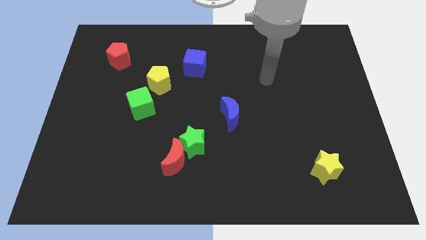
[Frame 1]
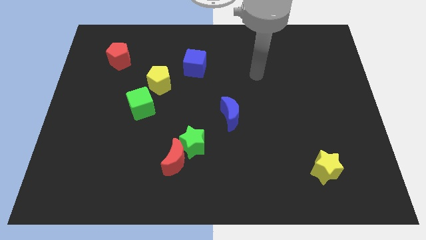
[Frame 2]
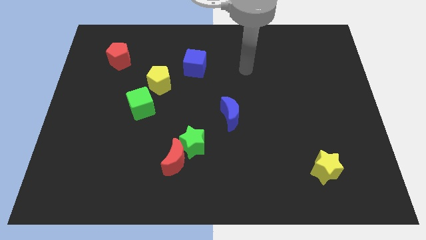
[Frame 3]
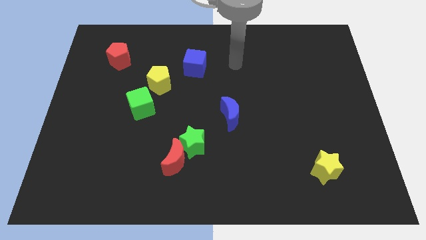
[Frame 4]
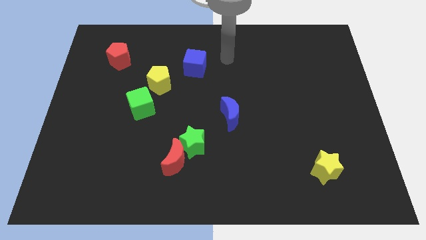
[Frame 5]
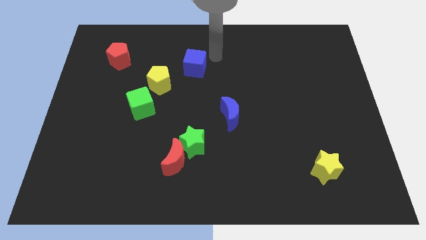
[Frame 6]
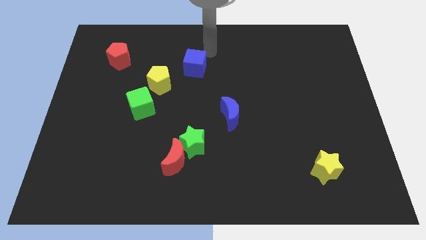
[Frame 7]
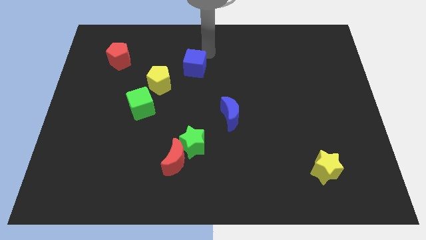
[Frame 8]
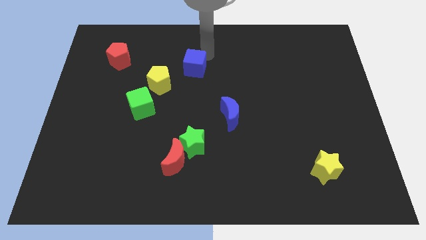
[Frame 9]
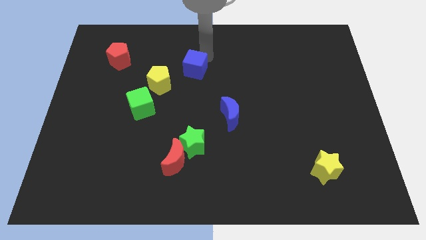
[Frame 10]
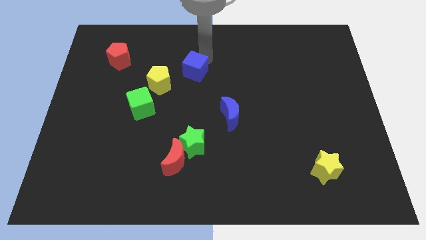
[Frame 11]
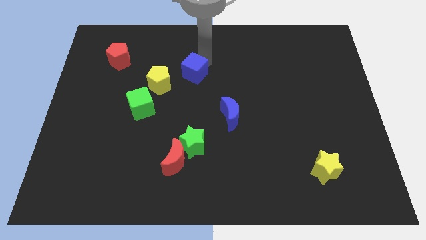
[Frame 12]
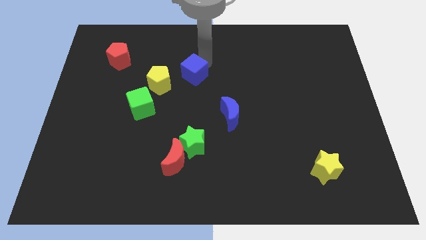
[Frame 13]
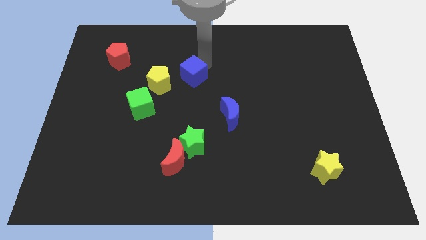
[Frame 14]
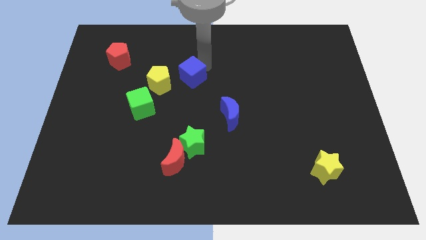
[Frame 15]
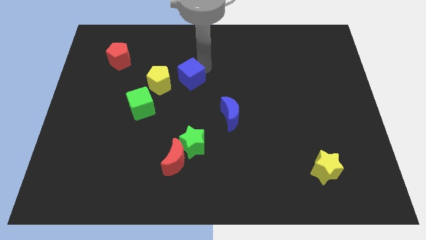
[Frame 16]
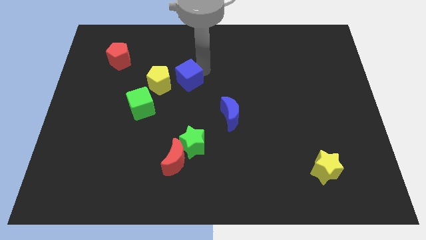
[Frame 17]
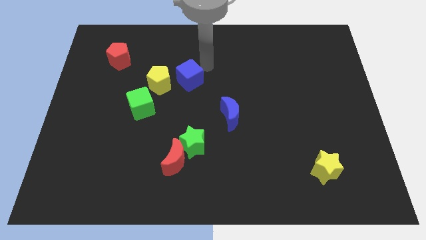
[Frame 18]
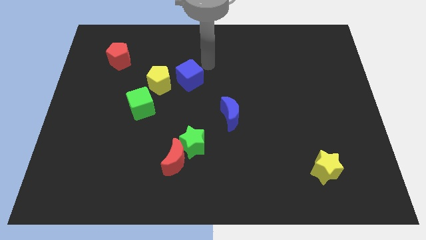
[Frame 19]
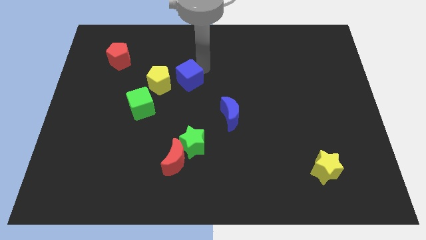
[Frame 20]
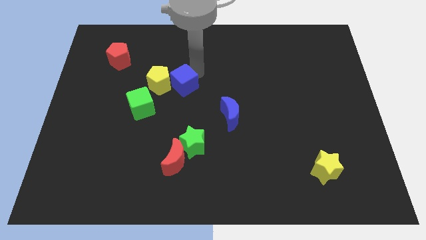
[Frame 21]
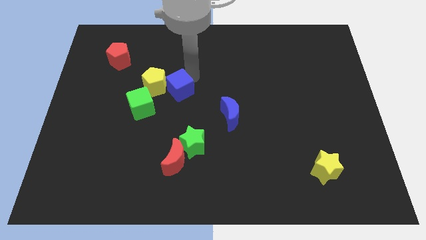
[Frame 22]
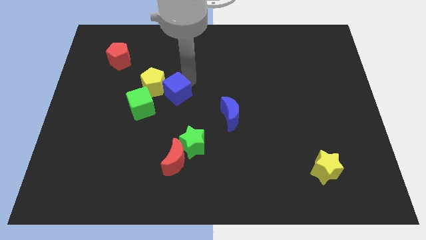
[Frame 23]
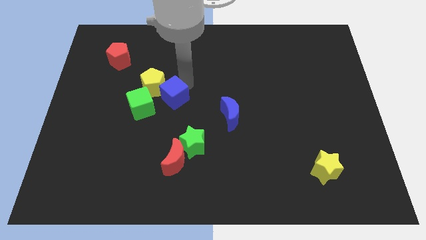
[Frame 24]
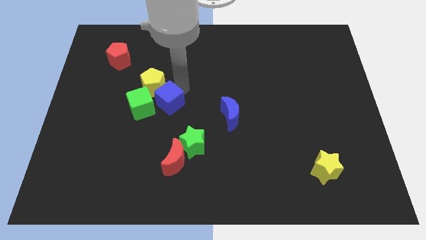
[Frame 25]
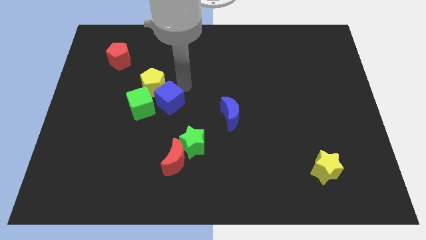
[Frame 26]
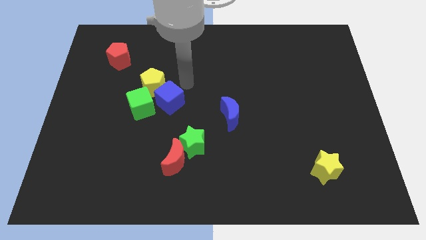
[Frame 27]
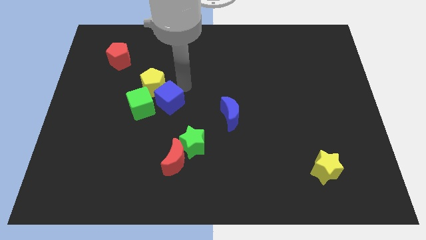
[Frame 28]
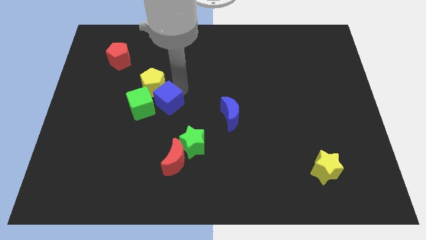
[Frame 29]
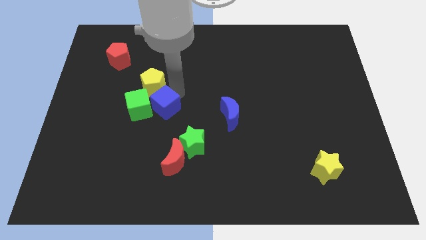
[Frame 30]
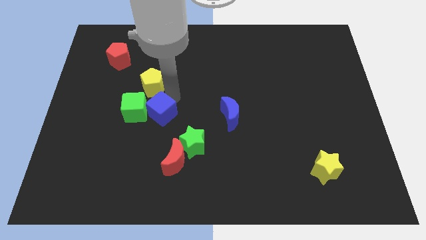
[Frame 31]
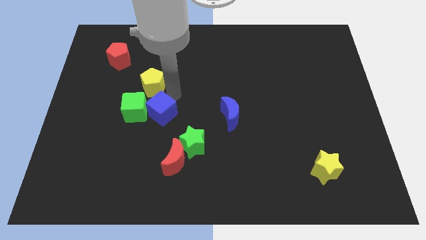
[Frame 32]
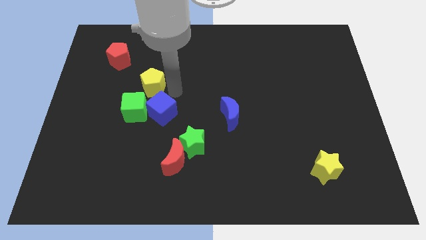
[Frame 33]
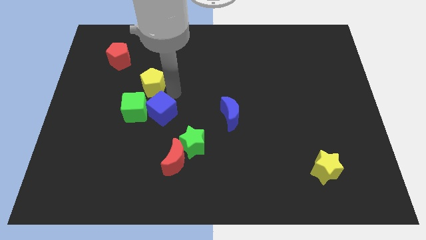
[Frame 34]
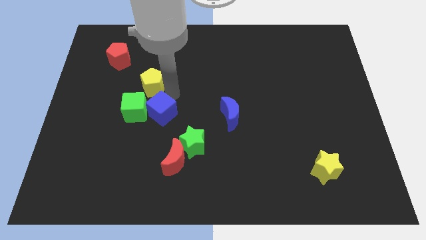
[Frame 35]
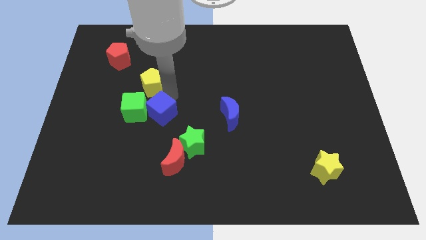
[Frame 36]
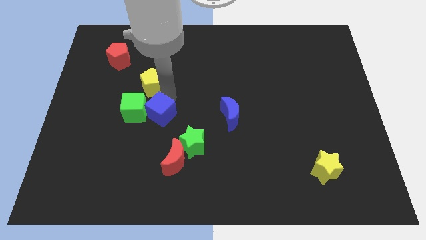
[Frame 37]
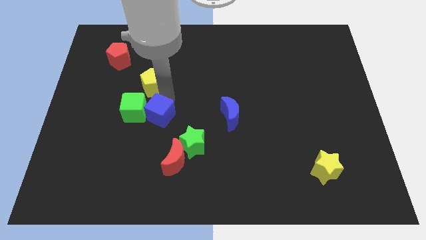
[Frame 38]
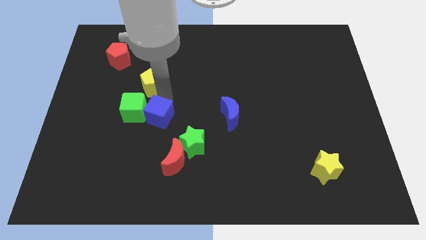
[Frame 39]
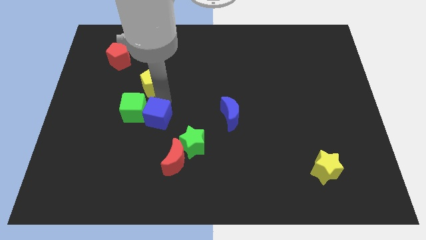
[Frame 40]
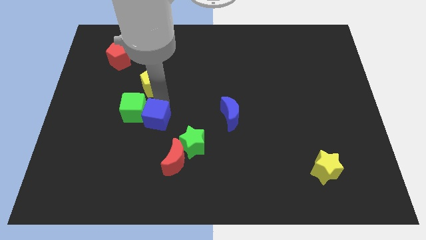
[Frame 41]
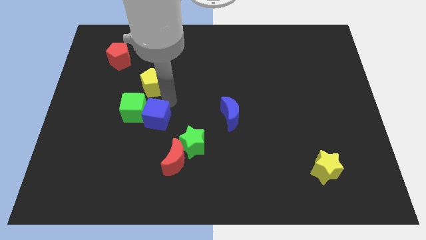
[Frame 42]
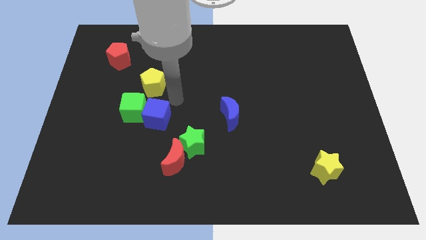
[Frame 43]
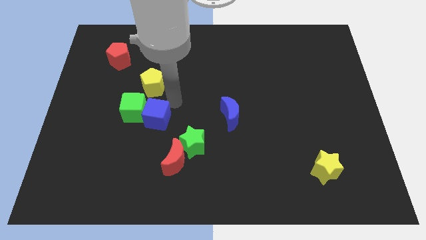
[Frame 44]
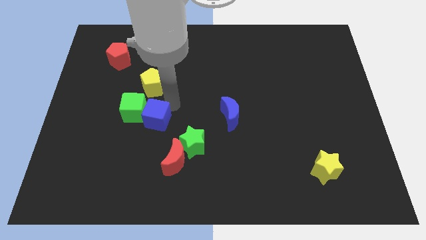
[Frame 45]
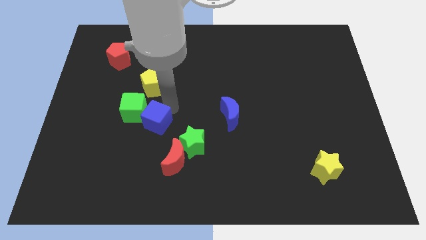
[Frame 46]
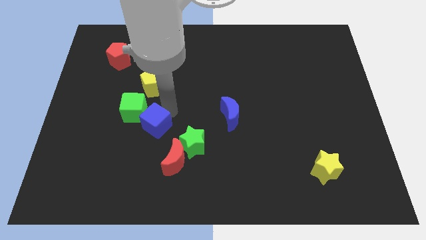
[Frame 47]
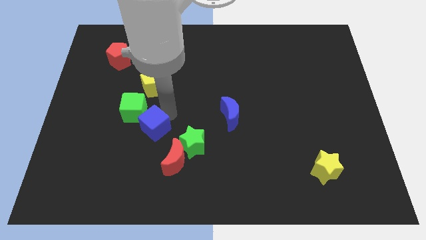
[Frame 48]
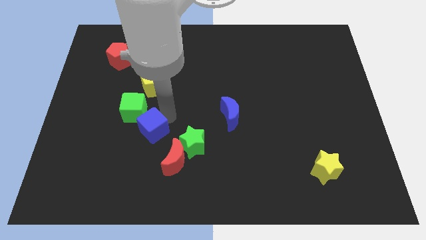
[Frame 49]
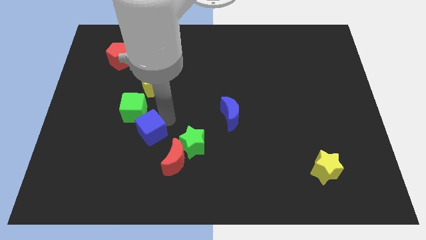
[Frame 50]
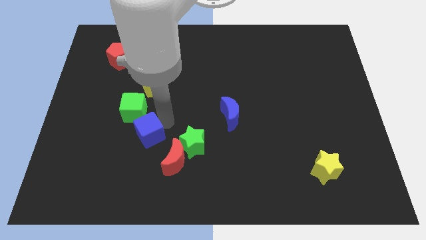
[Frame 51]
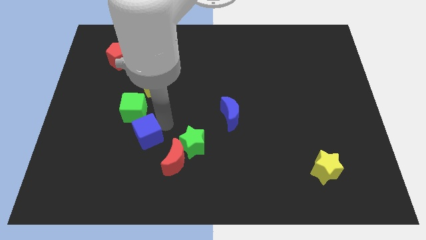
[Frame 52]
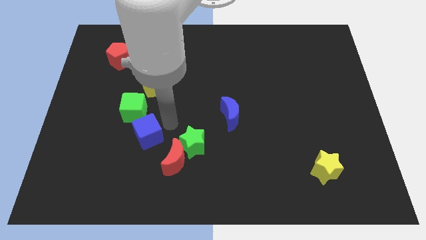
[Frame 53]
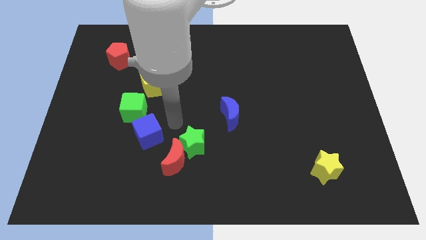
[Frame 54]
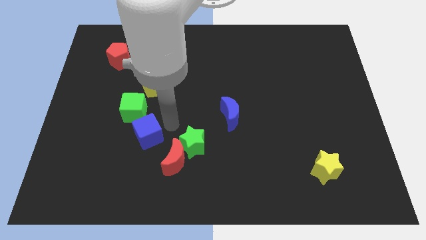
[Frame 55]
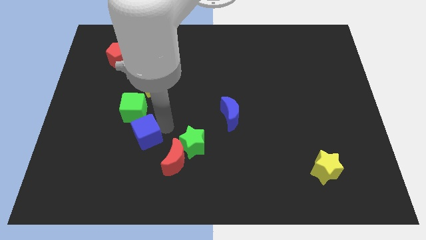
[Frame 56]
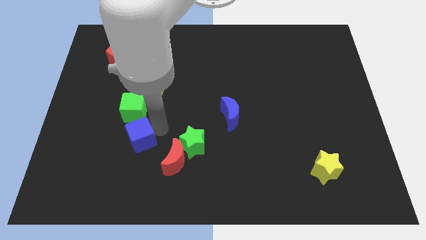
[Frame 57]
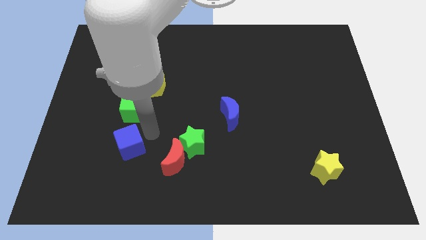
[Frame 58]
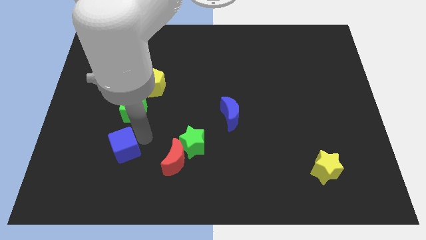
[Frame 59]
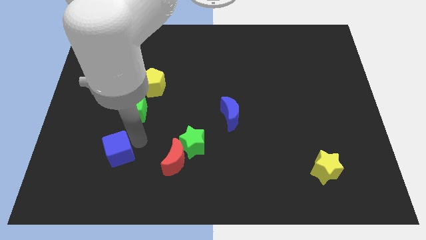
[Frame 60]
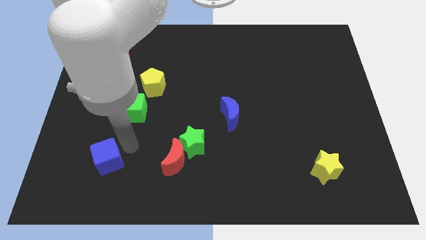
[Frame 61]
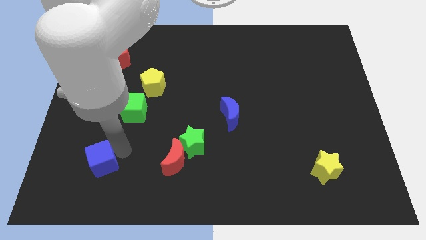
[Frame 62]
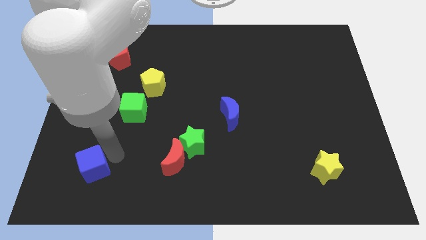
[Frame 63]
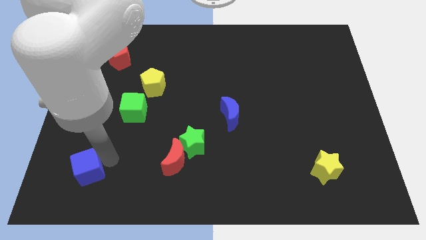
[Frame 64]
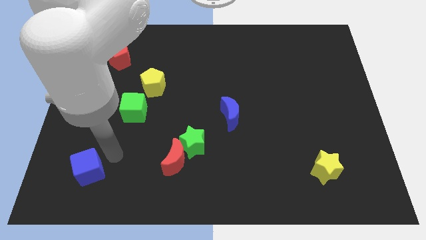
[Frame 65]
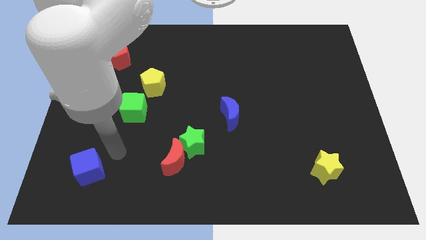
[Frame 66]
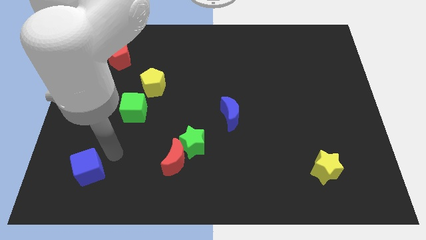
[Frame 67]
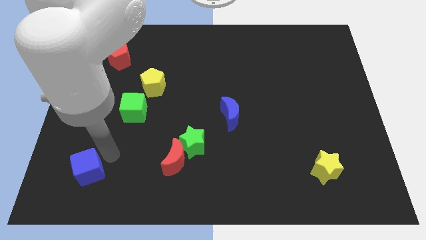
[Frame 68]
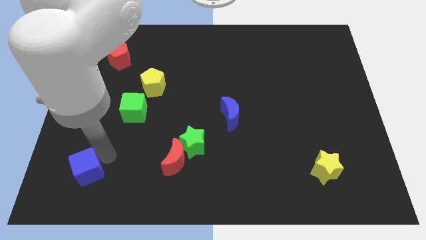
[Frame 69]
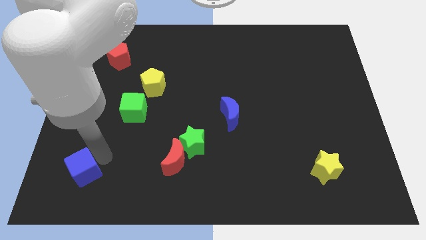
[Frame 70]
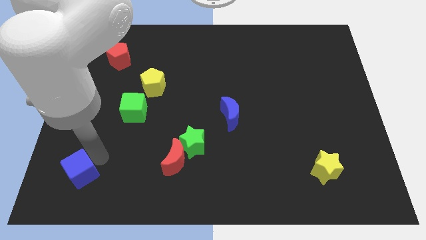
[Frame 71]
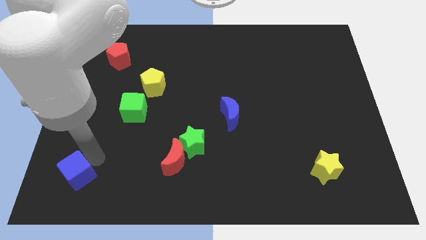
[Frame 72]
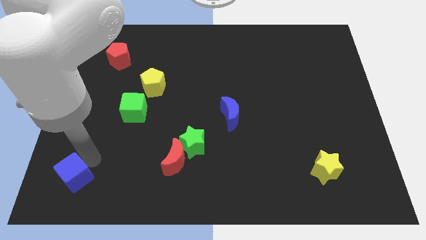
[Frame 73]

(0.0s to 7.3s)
slide the blue cube to the lower left corner

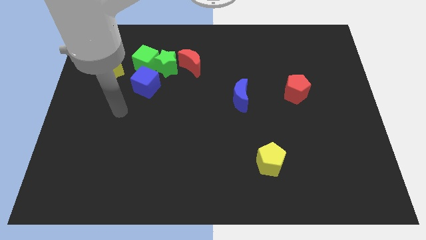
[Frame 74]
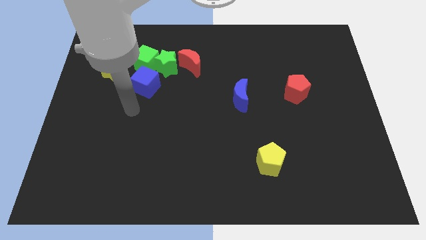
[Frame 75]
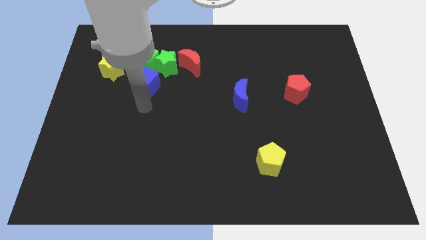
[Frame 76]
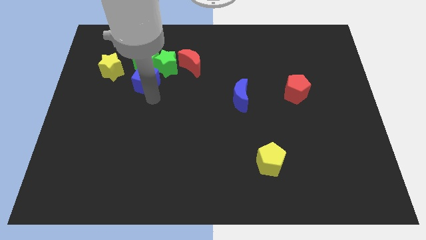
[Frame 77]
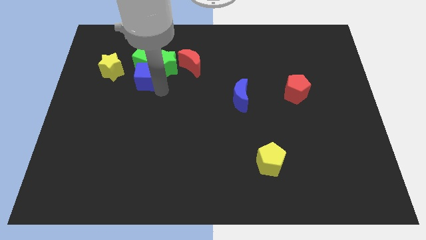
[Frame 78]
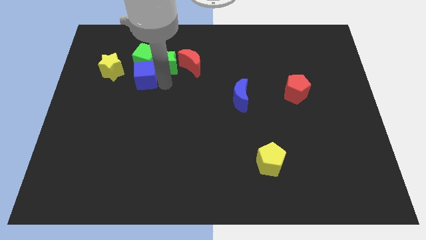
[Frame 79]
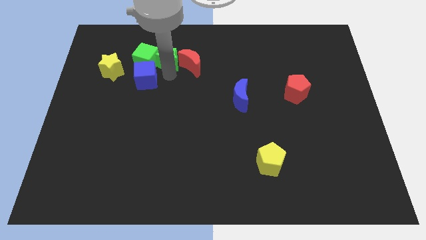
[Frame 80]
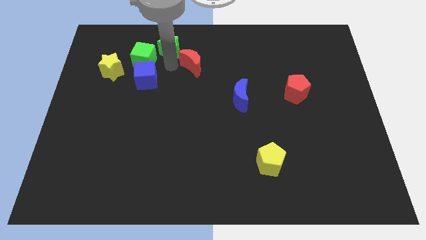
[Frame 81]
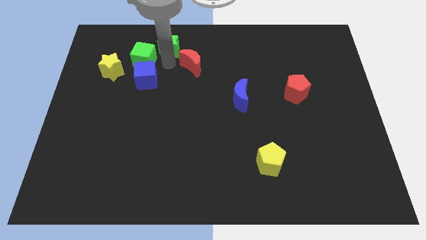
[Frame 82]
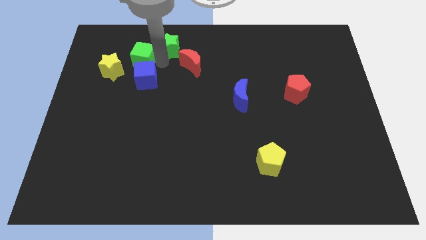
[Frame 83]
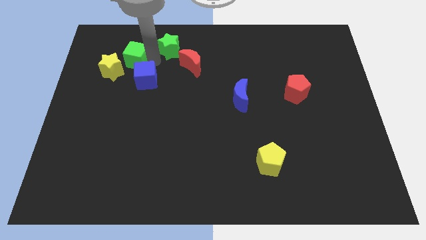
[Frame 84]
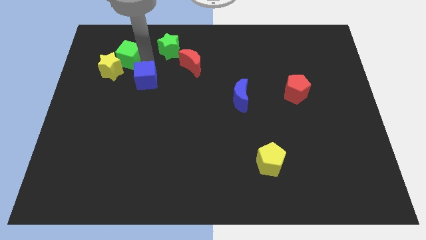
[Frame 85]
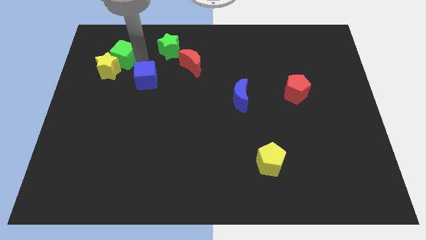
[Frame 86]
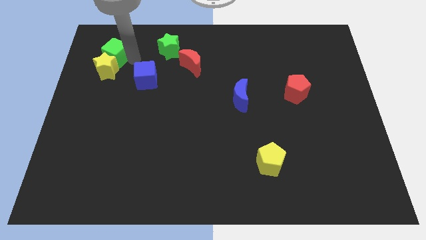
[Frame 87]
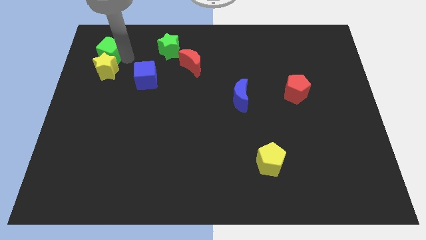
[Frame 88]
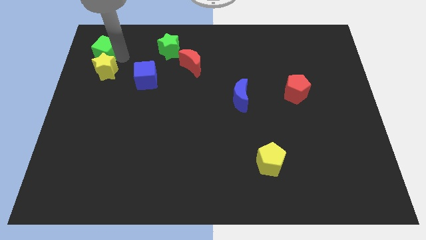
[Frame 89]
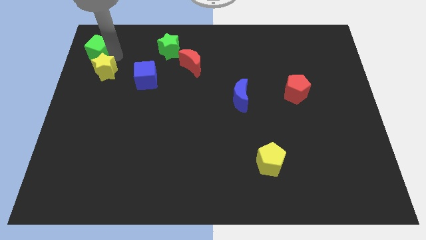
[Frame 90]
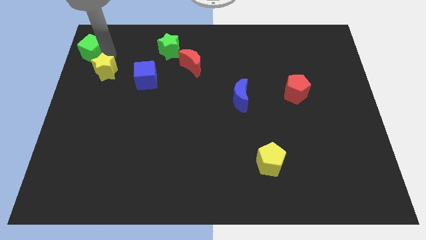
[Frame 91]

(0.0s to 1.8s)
move the green cube to the upper left corner
